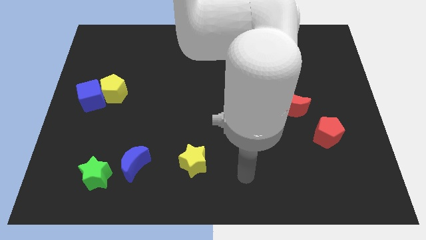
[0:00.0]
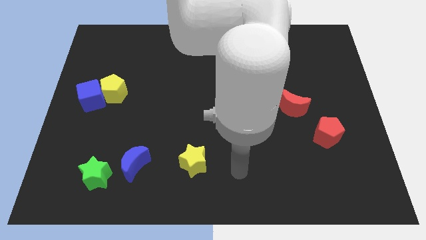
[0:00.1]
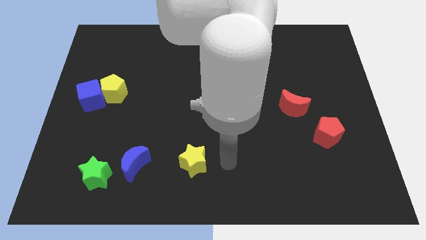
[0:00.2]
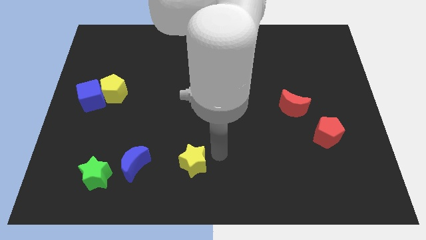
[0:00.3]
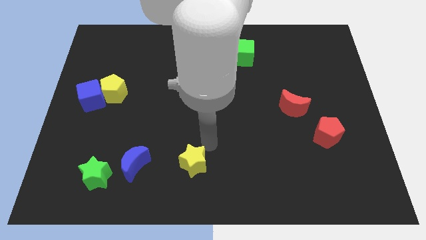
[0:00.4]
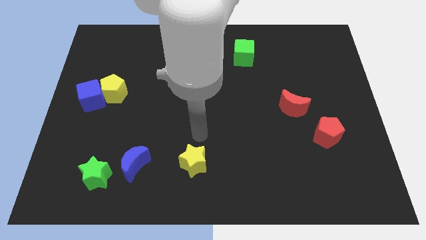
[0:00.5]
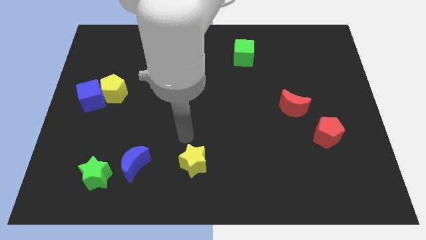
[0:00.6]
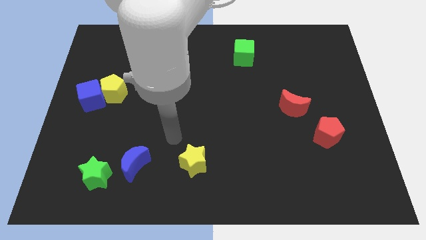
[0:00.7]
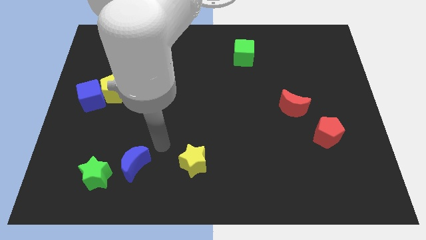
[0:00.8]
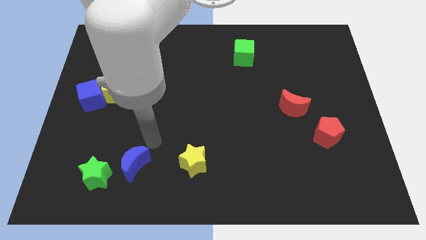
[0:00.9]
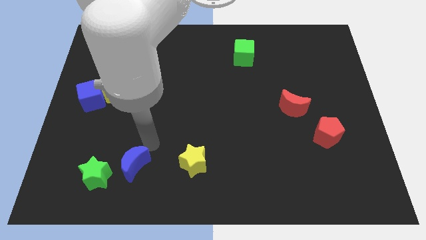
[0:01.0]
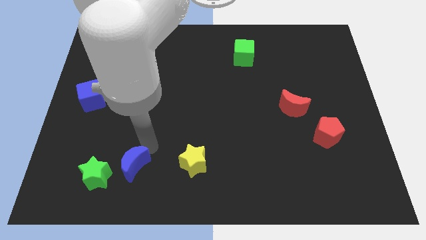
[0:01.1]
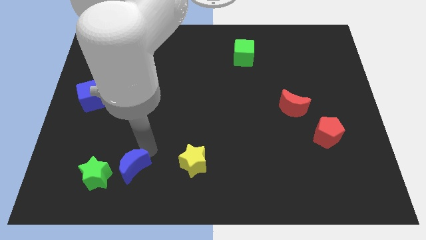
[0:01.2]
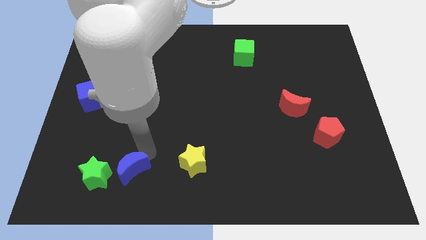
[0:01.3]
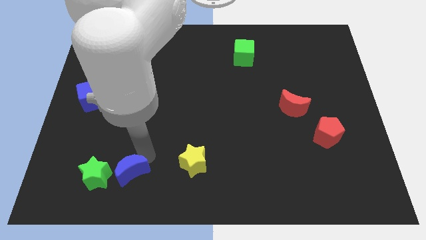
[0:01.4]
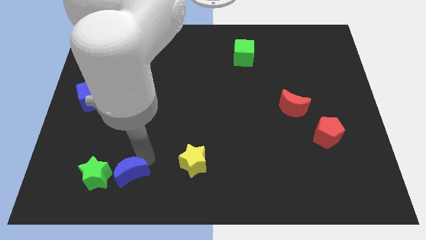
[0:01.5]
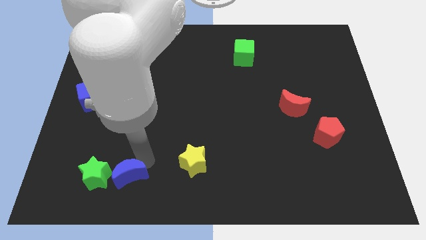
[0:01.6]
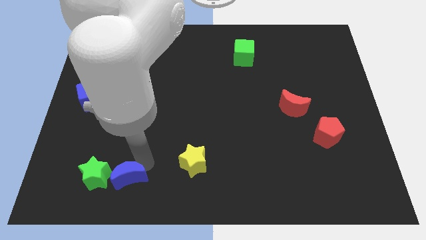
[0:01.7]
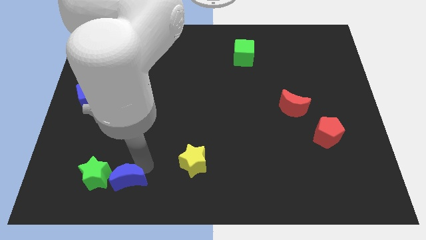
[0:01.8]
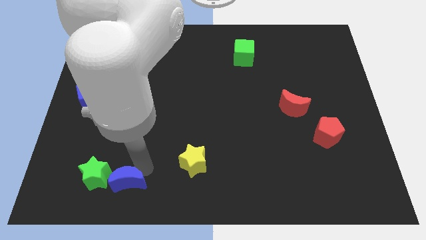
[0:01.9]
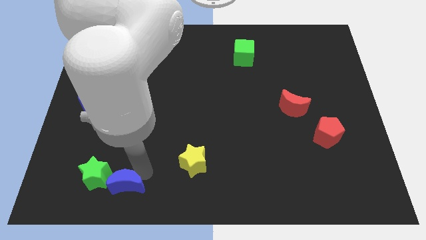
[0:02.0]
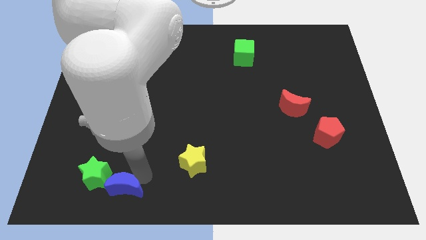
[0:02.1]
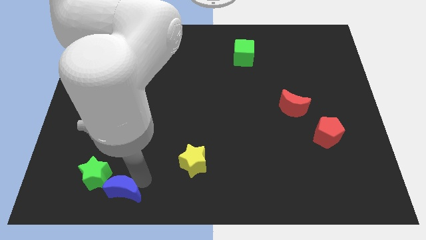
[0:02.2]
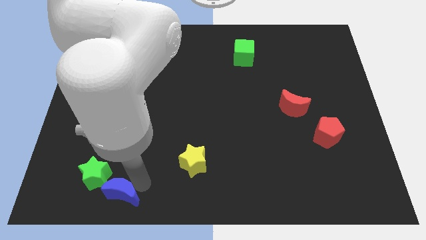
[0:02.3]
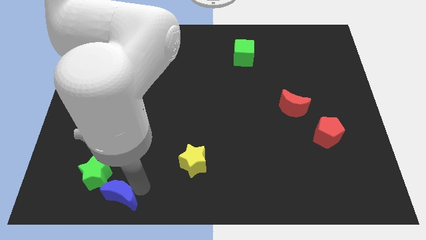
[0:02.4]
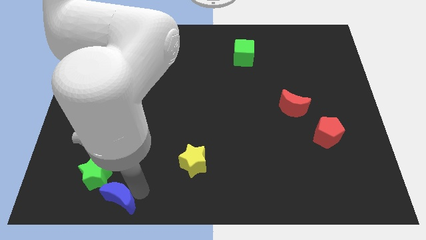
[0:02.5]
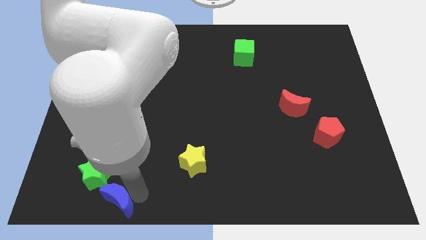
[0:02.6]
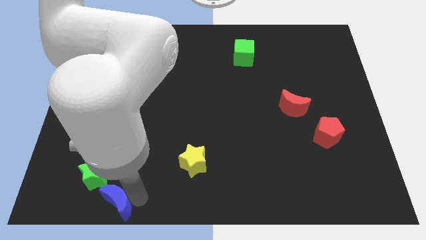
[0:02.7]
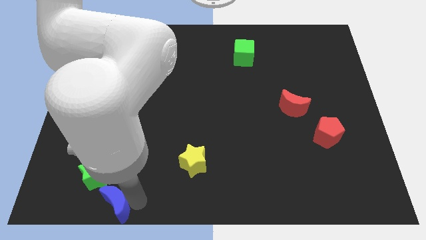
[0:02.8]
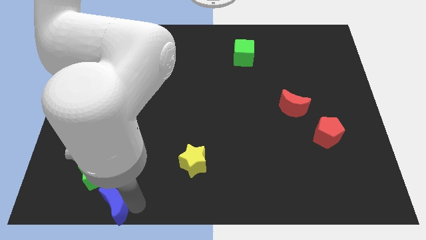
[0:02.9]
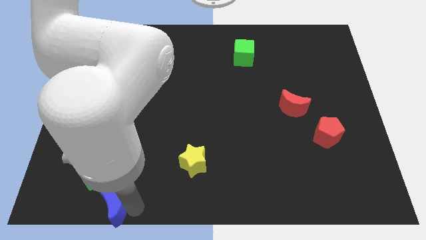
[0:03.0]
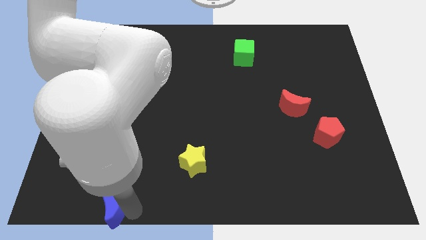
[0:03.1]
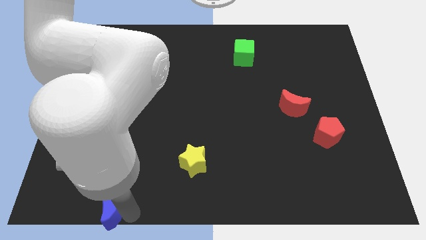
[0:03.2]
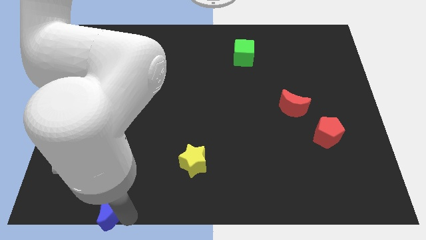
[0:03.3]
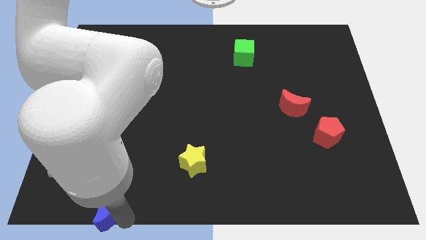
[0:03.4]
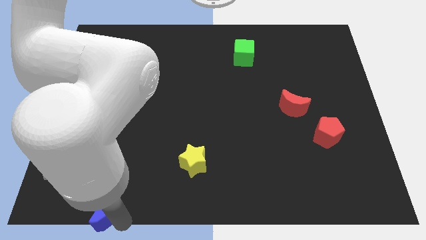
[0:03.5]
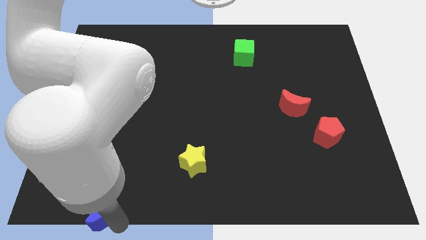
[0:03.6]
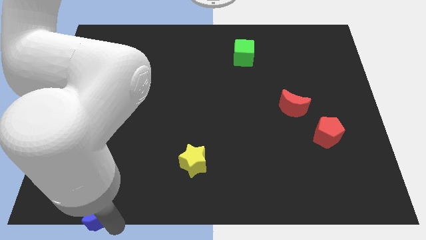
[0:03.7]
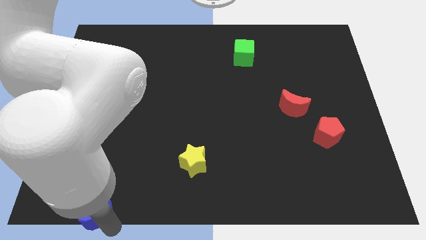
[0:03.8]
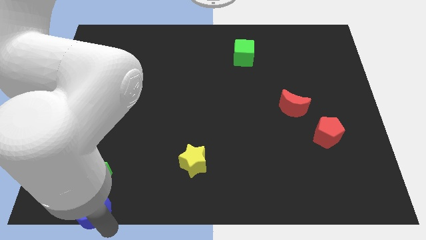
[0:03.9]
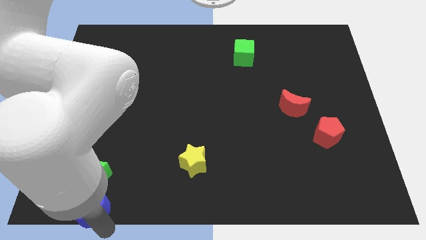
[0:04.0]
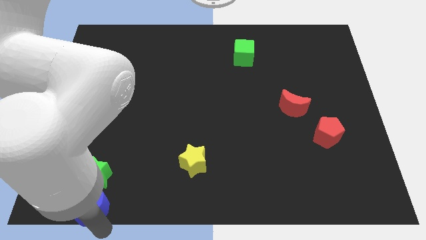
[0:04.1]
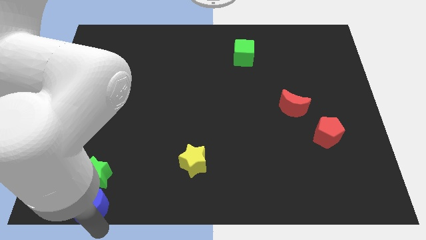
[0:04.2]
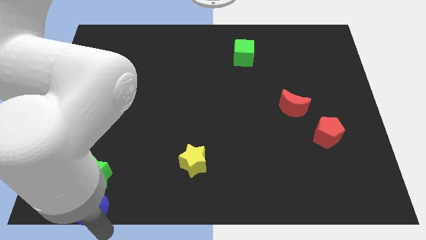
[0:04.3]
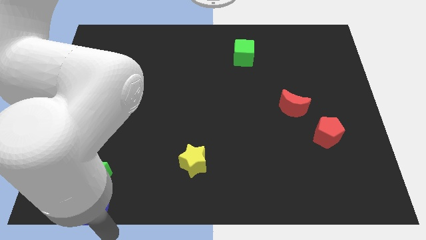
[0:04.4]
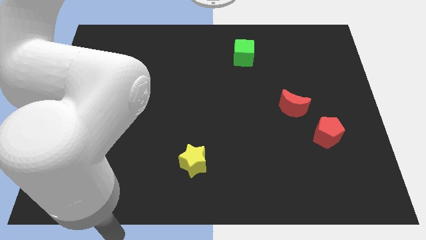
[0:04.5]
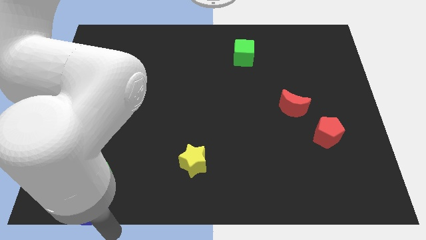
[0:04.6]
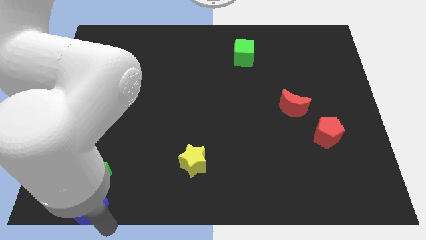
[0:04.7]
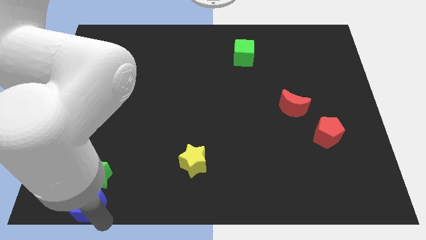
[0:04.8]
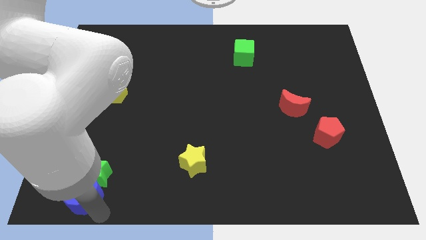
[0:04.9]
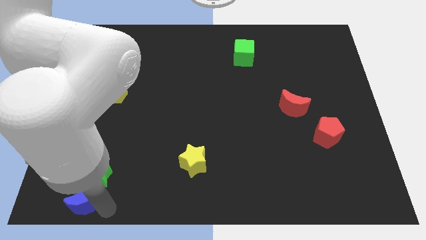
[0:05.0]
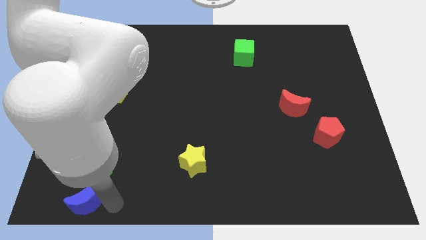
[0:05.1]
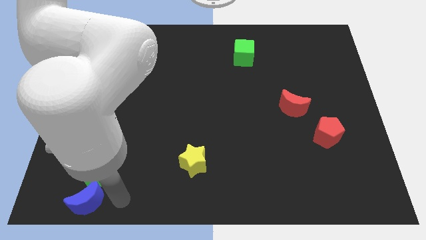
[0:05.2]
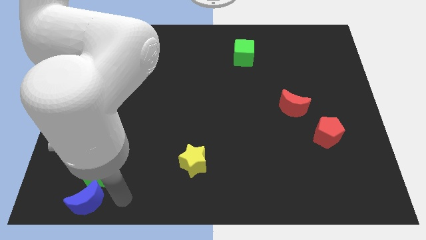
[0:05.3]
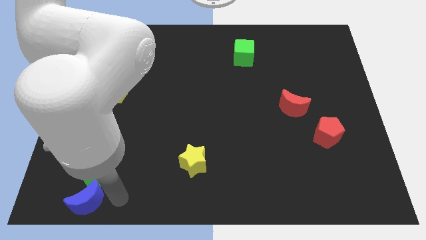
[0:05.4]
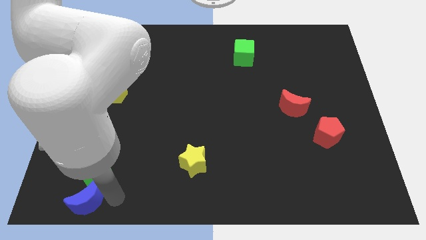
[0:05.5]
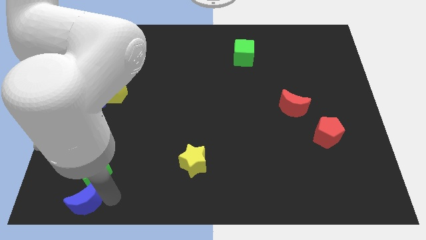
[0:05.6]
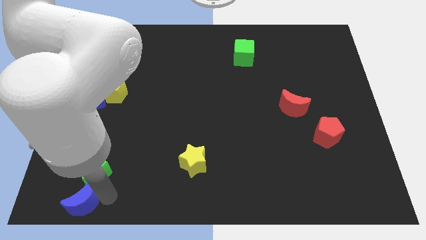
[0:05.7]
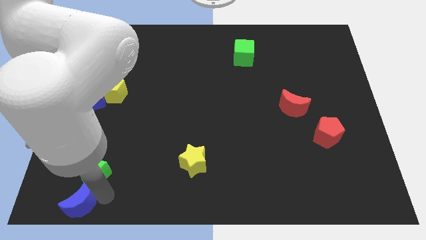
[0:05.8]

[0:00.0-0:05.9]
move the blue moon to the bottom left

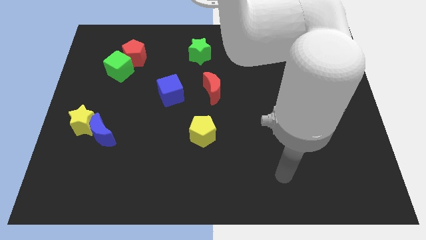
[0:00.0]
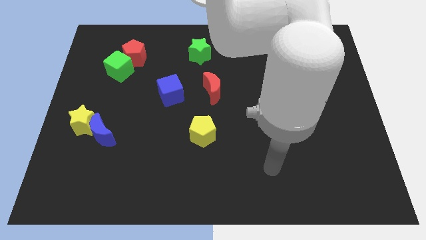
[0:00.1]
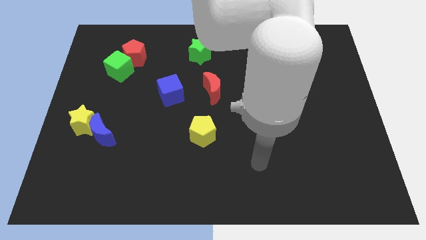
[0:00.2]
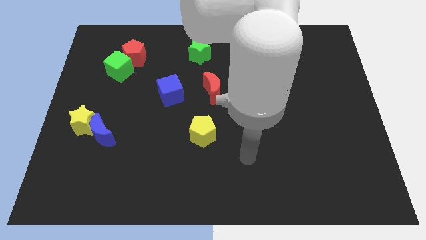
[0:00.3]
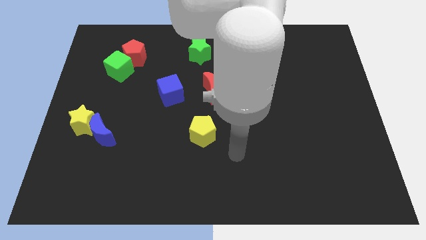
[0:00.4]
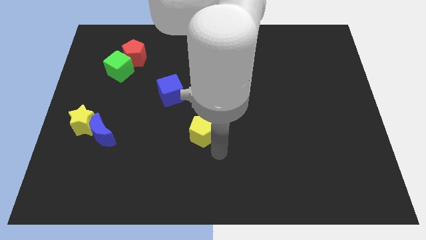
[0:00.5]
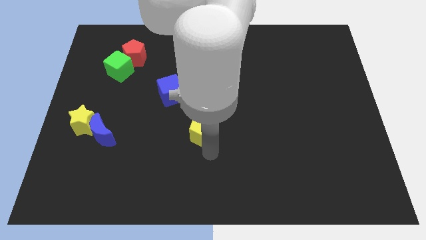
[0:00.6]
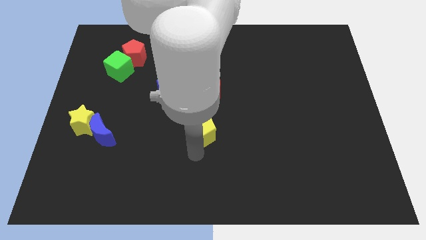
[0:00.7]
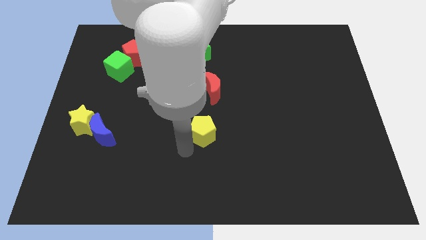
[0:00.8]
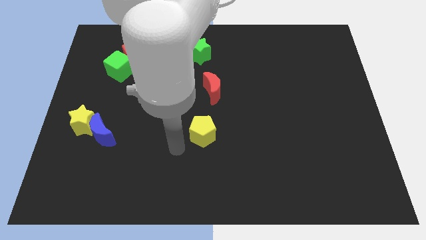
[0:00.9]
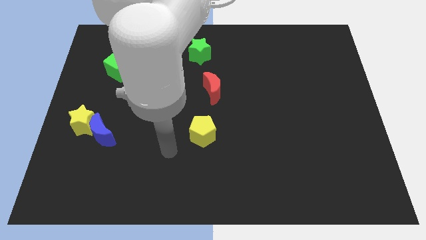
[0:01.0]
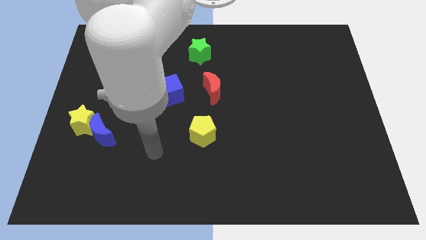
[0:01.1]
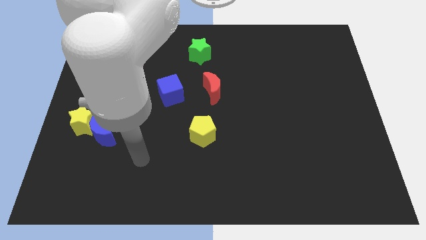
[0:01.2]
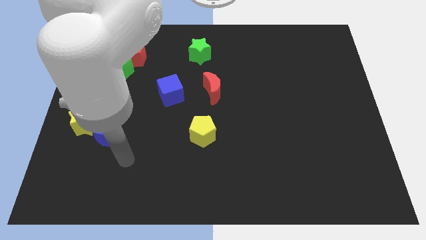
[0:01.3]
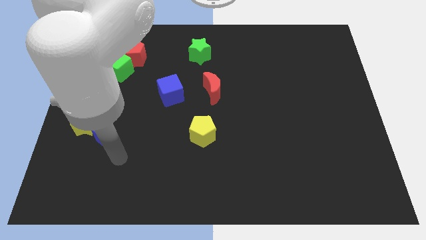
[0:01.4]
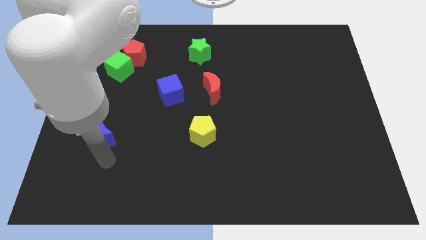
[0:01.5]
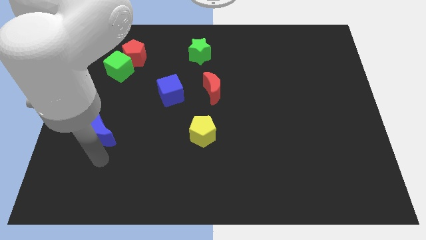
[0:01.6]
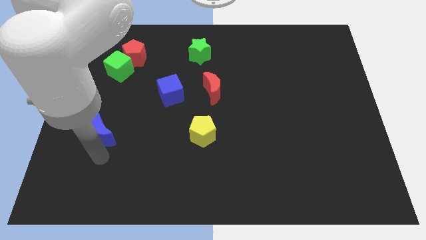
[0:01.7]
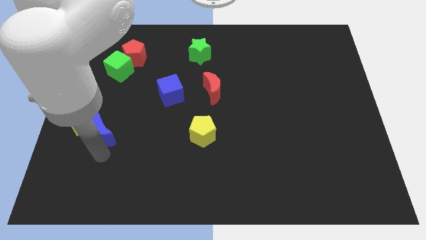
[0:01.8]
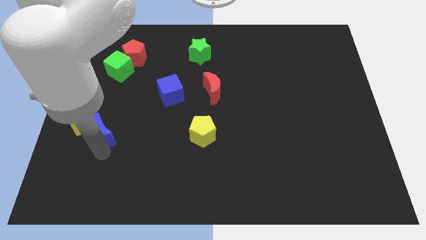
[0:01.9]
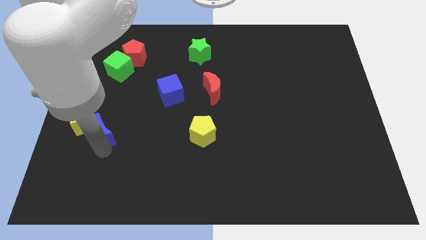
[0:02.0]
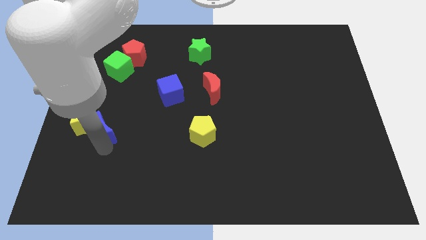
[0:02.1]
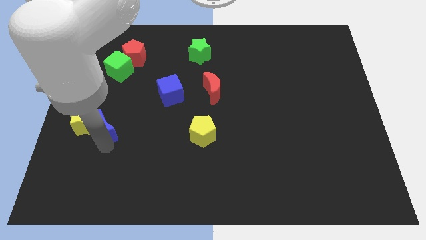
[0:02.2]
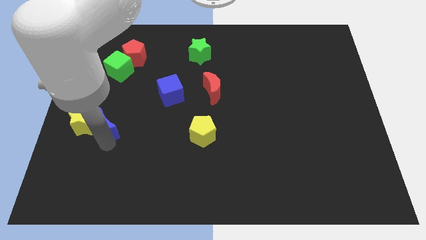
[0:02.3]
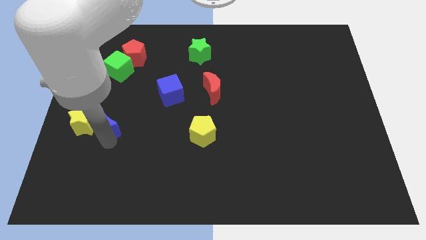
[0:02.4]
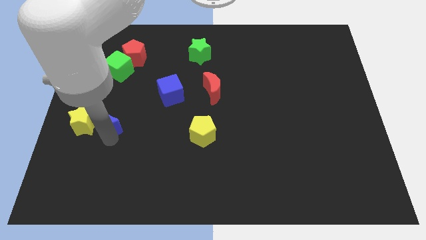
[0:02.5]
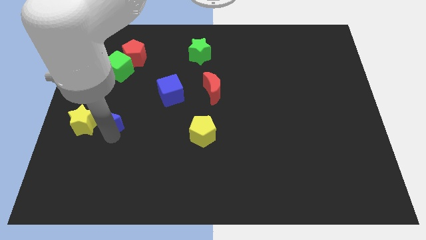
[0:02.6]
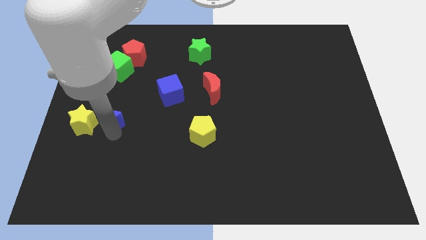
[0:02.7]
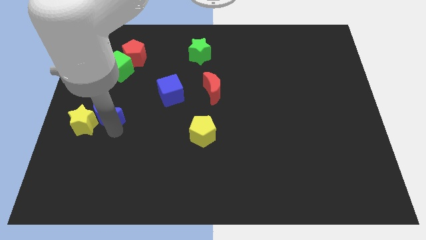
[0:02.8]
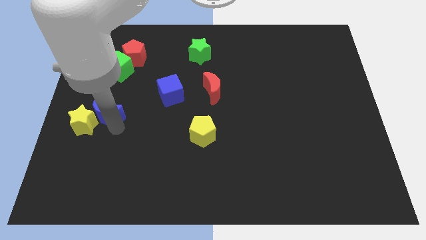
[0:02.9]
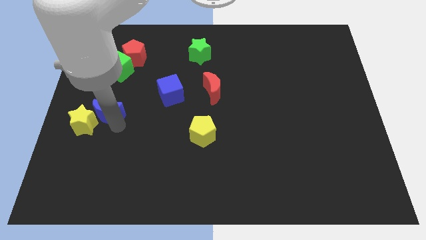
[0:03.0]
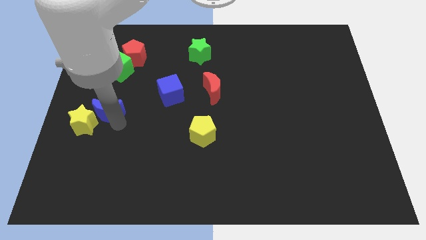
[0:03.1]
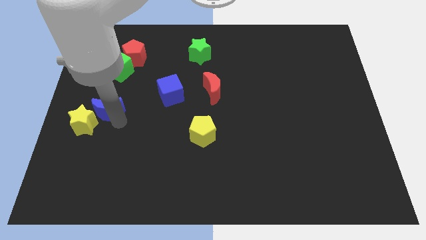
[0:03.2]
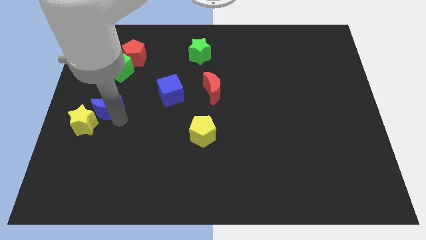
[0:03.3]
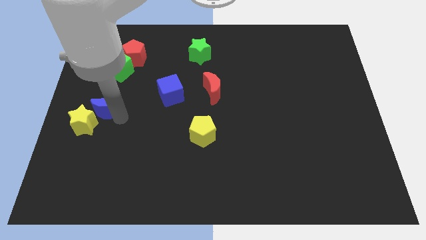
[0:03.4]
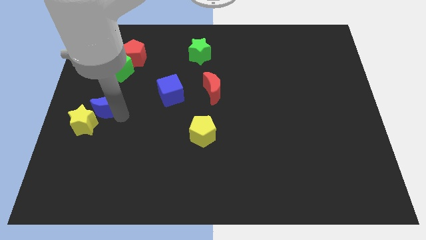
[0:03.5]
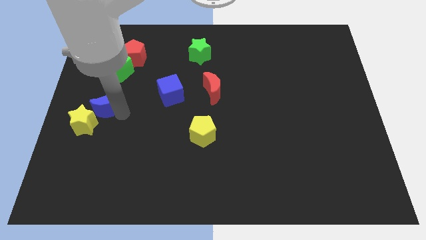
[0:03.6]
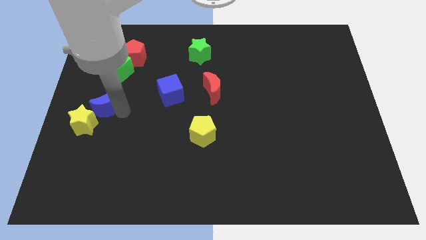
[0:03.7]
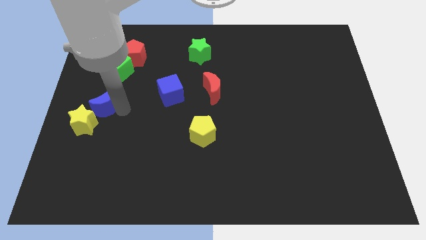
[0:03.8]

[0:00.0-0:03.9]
push the blue moon to the left side
